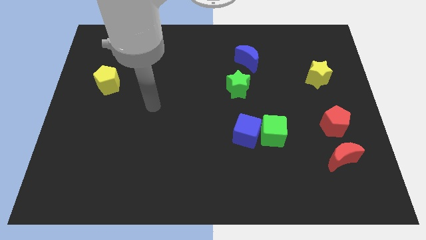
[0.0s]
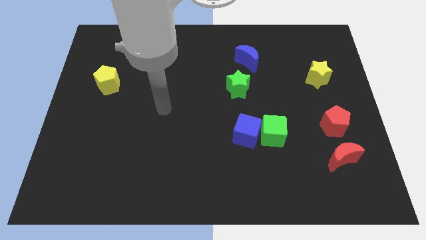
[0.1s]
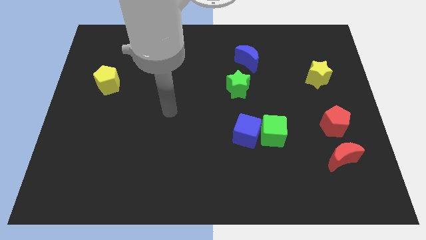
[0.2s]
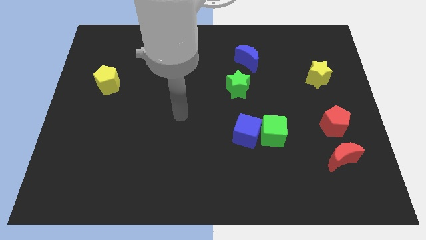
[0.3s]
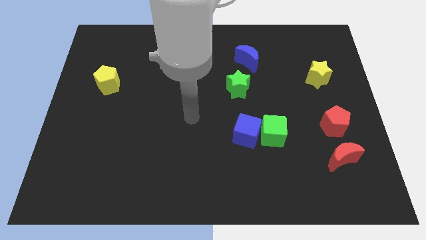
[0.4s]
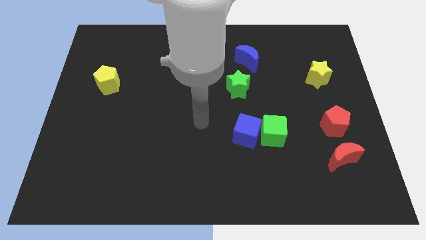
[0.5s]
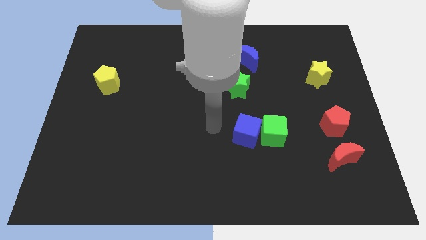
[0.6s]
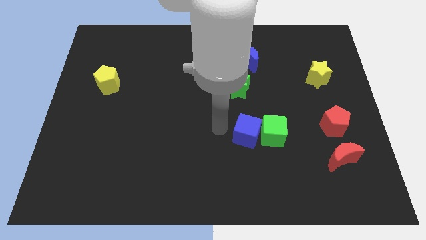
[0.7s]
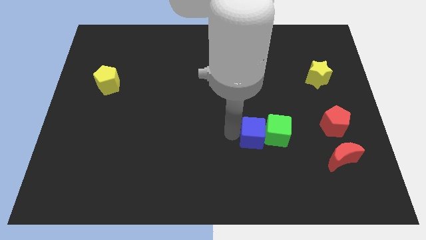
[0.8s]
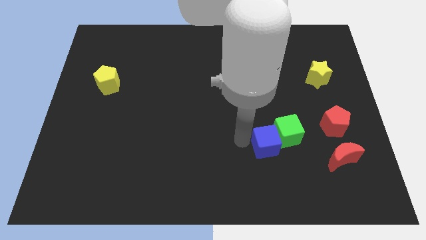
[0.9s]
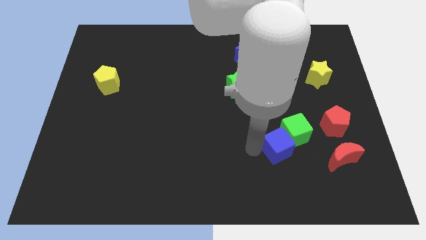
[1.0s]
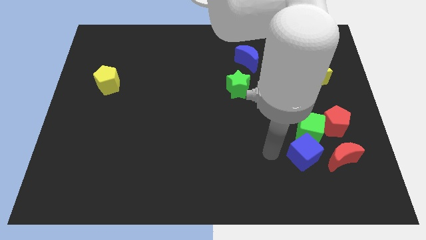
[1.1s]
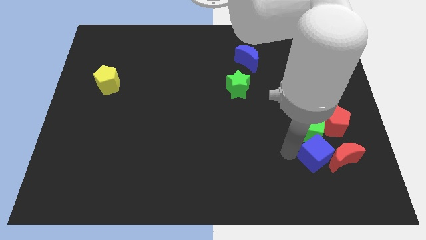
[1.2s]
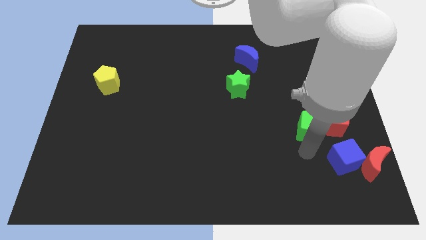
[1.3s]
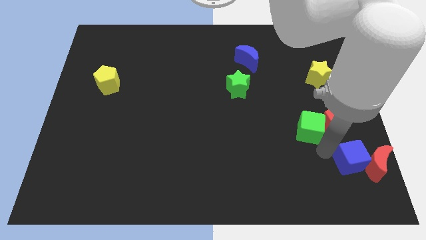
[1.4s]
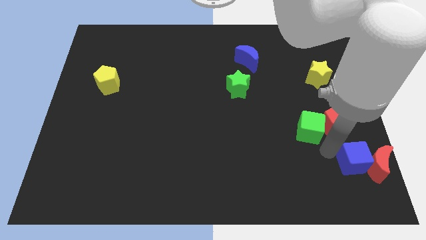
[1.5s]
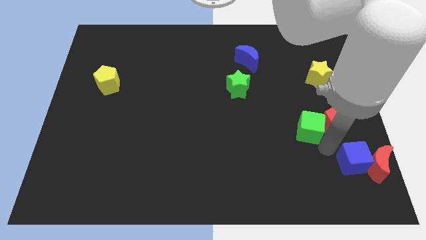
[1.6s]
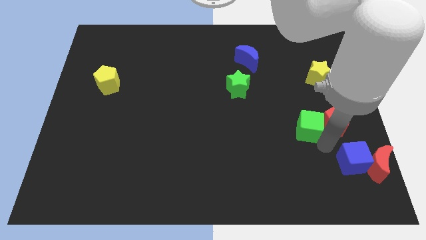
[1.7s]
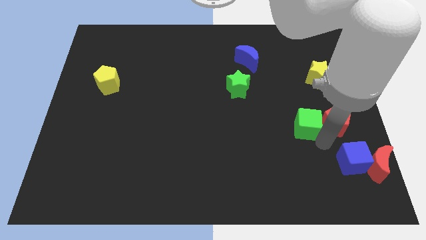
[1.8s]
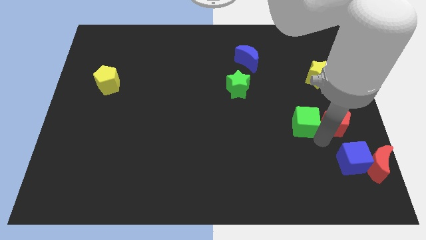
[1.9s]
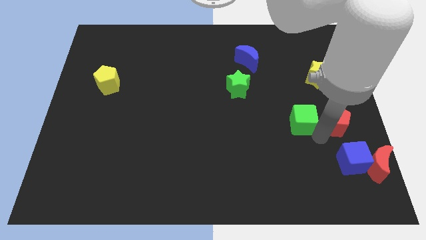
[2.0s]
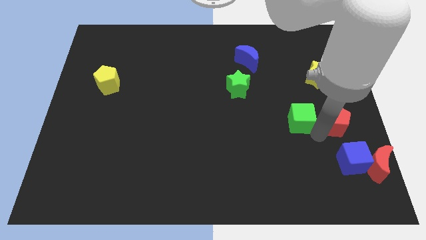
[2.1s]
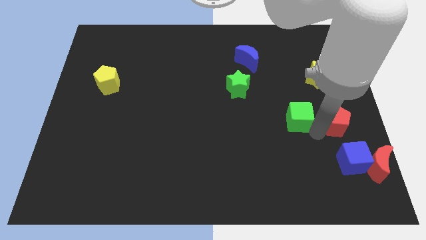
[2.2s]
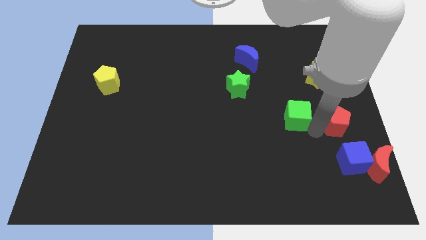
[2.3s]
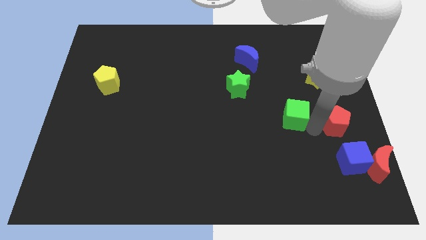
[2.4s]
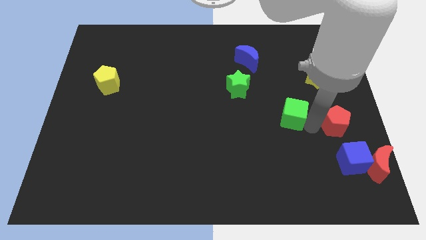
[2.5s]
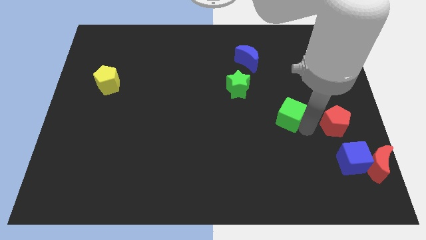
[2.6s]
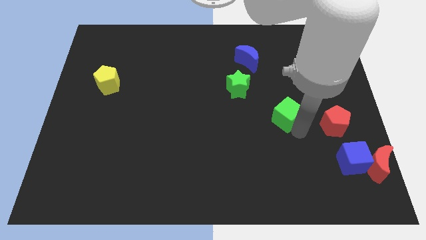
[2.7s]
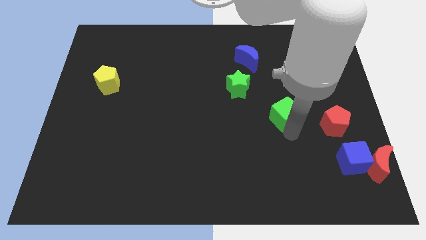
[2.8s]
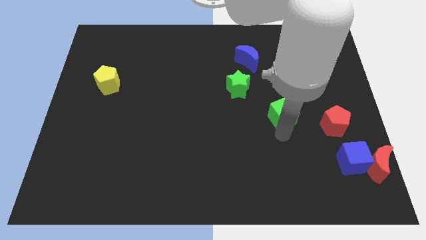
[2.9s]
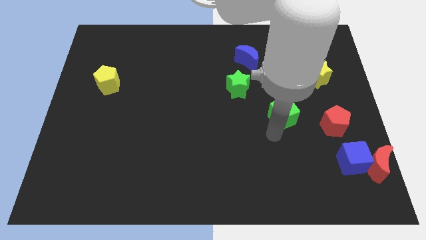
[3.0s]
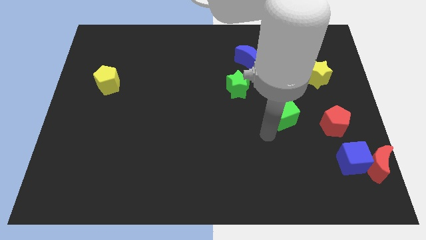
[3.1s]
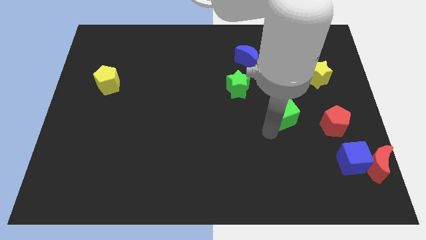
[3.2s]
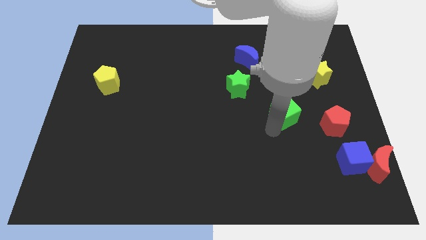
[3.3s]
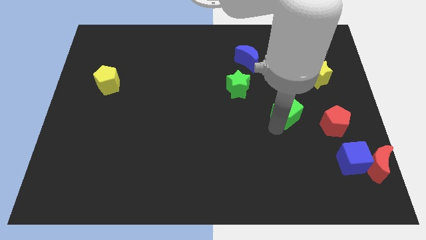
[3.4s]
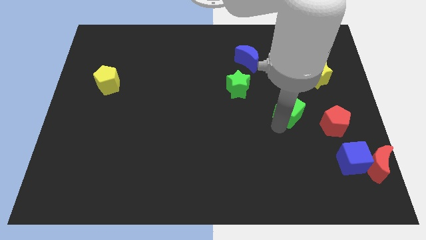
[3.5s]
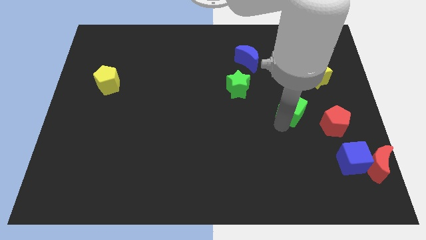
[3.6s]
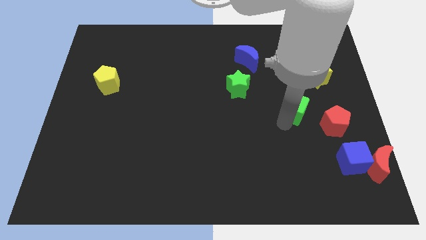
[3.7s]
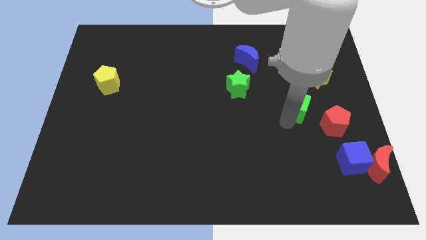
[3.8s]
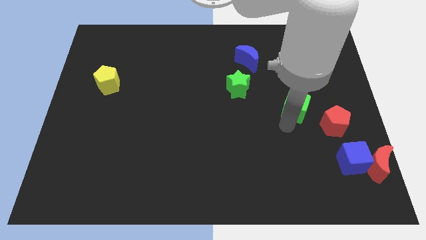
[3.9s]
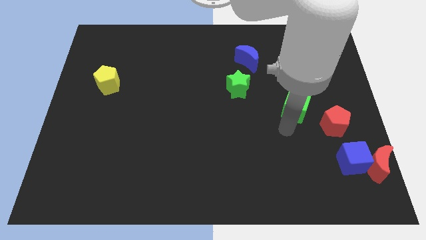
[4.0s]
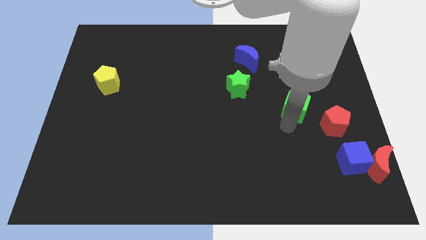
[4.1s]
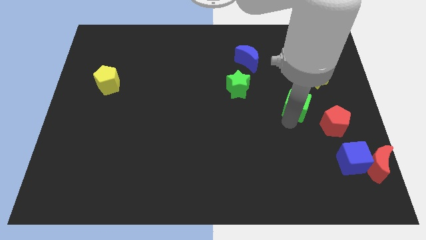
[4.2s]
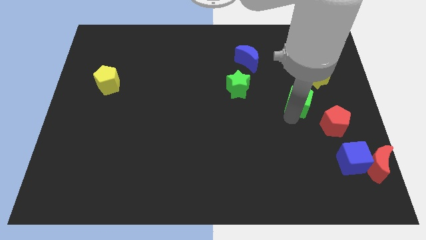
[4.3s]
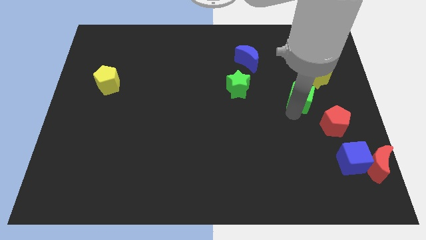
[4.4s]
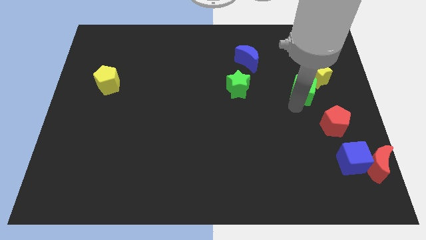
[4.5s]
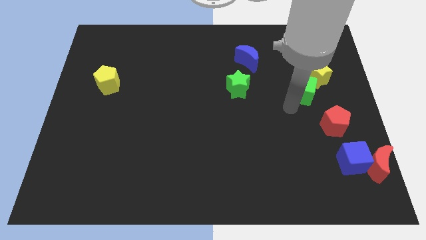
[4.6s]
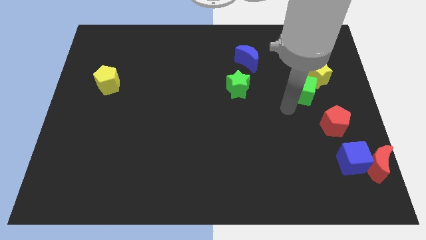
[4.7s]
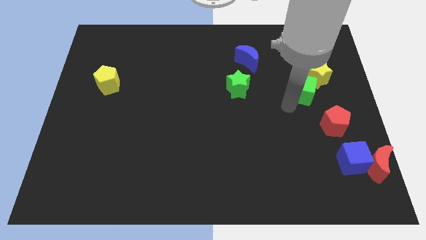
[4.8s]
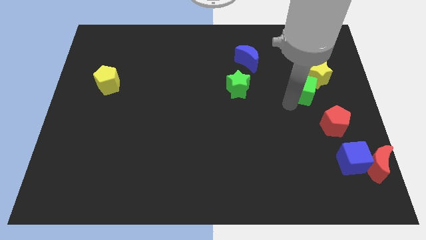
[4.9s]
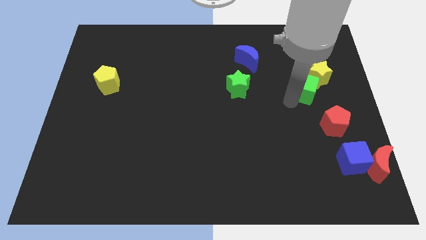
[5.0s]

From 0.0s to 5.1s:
slide the green cube towards the yellow star

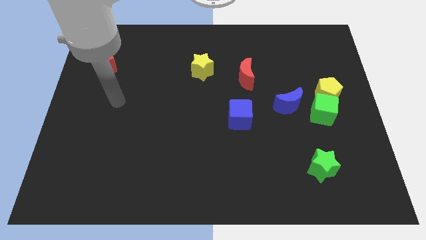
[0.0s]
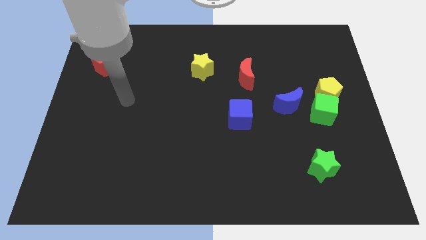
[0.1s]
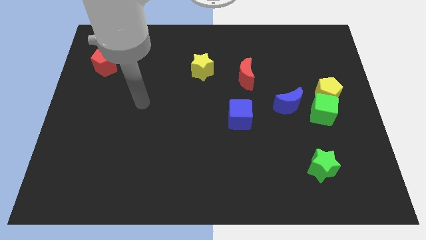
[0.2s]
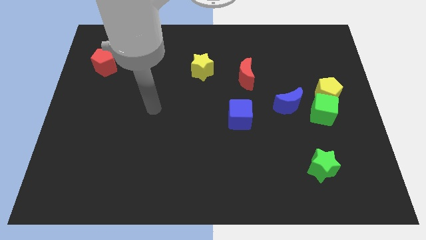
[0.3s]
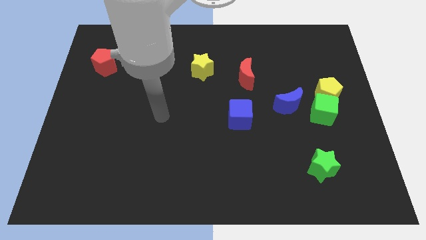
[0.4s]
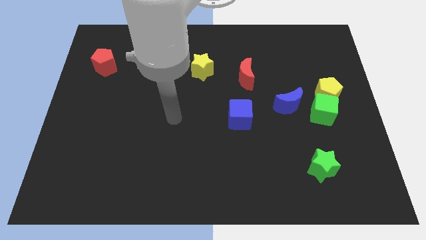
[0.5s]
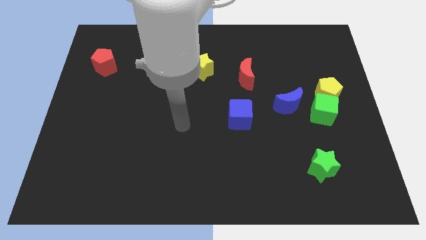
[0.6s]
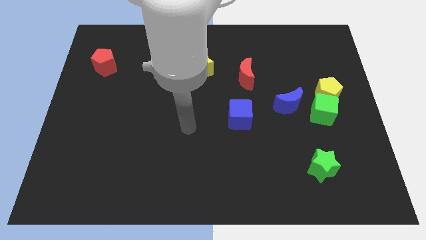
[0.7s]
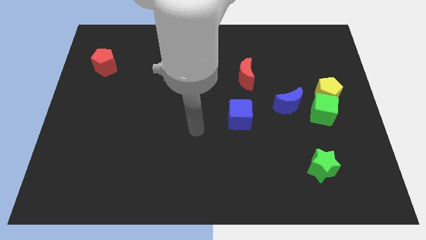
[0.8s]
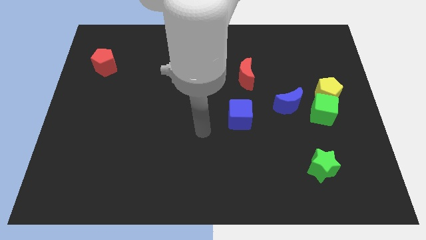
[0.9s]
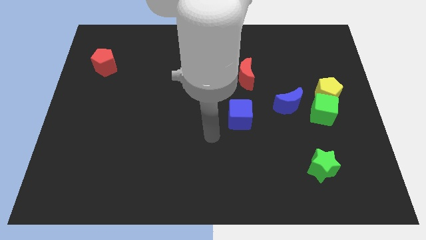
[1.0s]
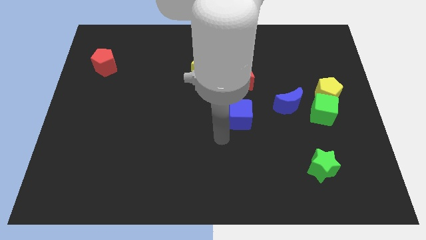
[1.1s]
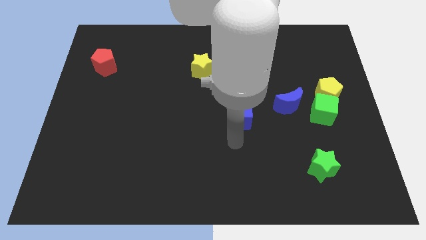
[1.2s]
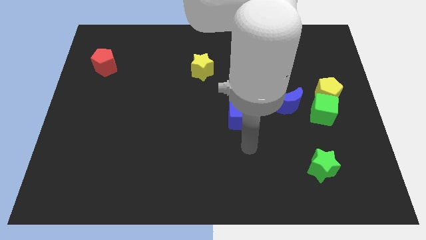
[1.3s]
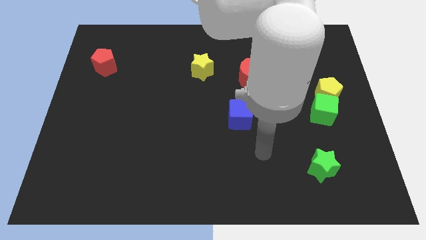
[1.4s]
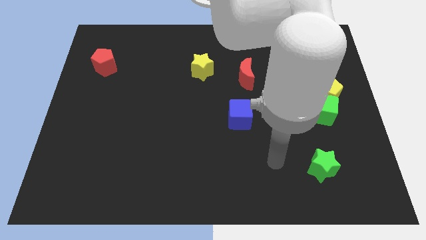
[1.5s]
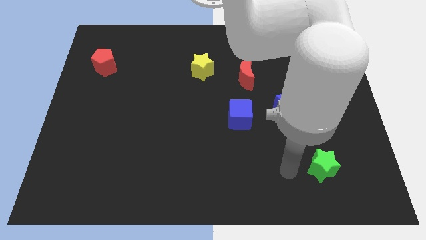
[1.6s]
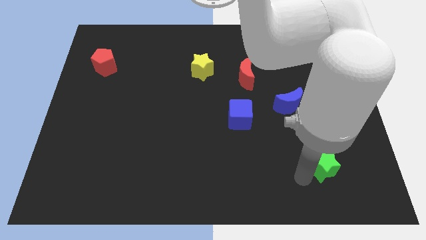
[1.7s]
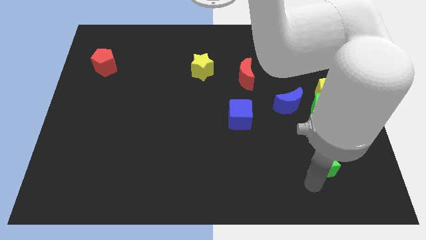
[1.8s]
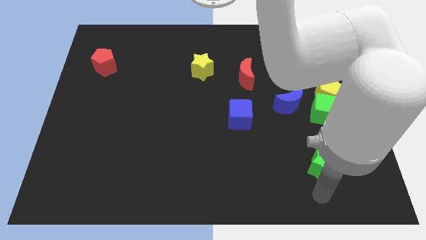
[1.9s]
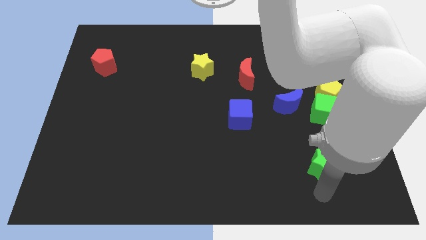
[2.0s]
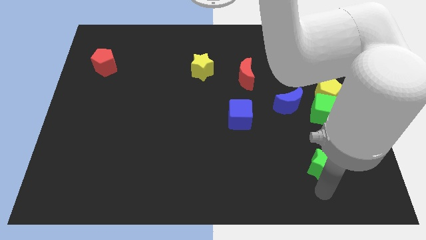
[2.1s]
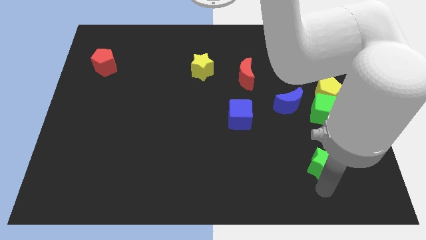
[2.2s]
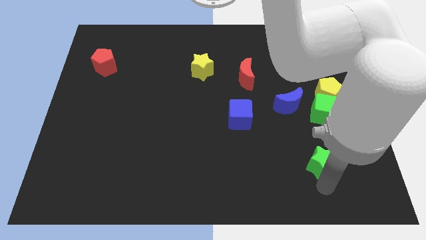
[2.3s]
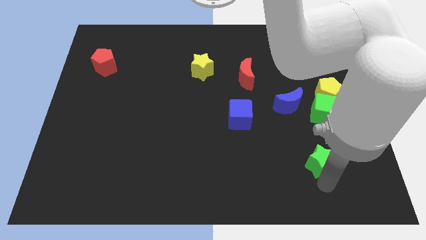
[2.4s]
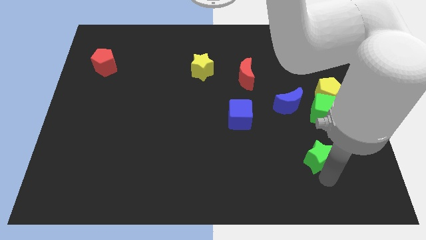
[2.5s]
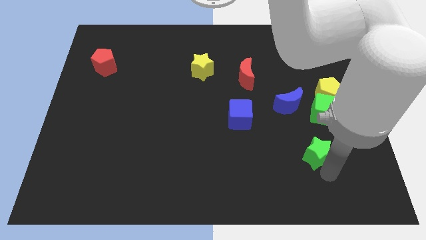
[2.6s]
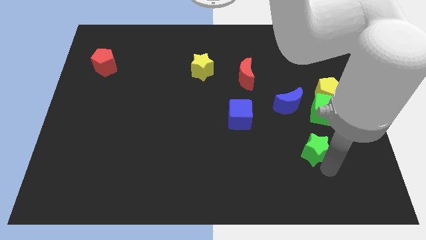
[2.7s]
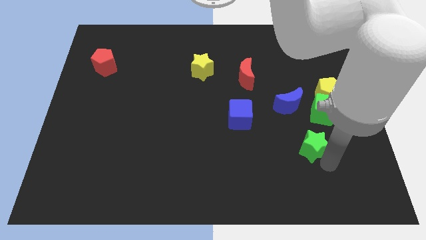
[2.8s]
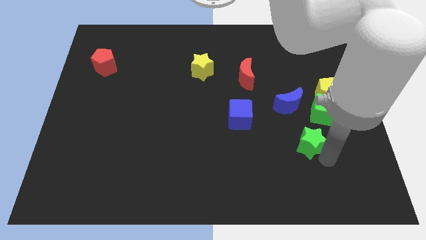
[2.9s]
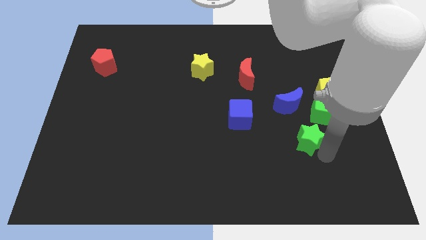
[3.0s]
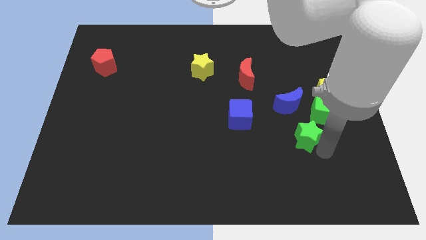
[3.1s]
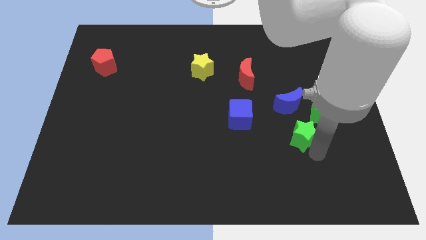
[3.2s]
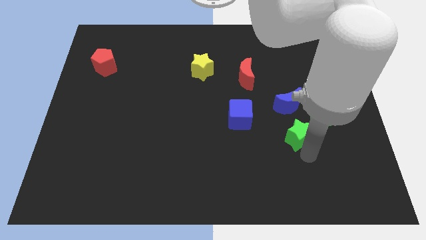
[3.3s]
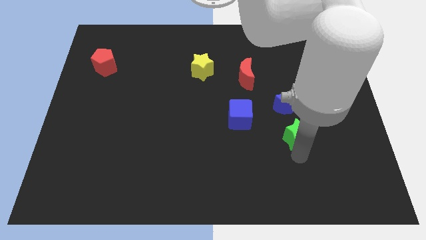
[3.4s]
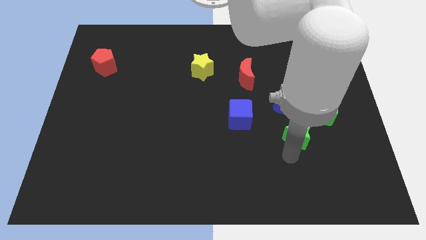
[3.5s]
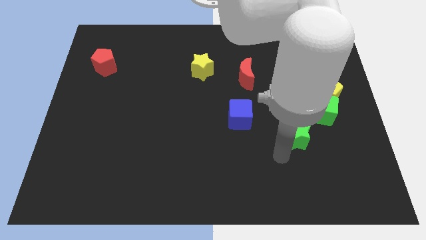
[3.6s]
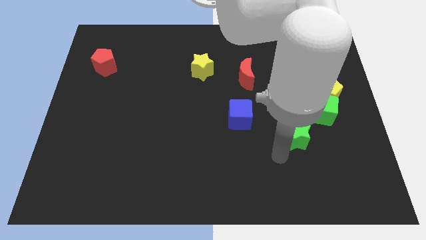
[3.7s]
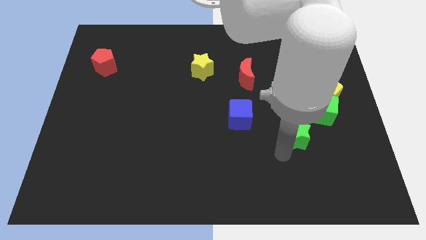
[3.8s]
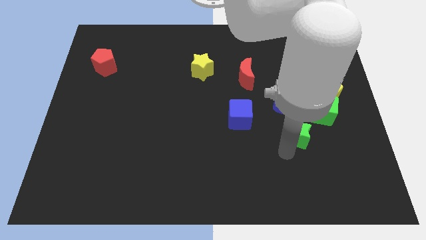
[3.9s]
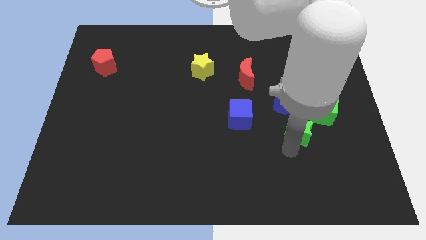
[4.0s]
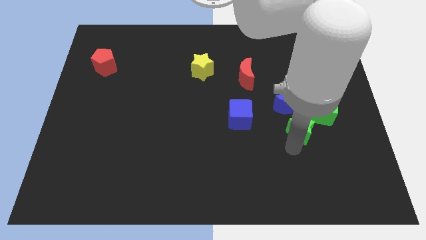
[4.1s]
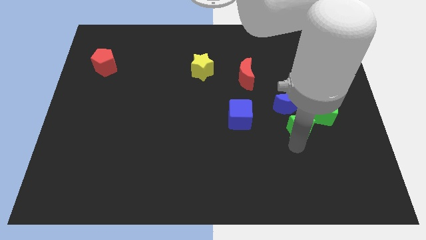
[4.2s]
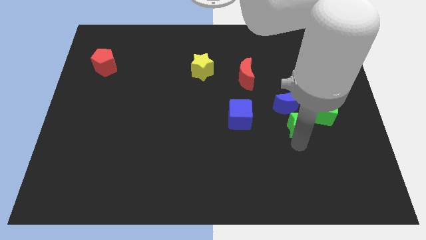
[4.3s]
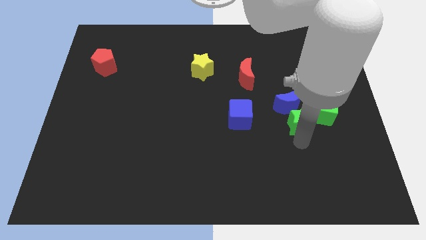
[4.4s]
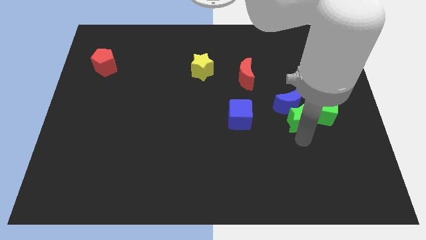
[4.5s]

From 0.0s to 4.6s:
put the green star next to the green cube
